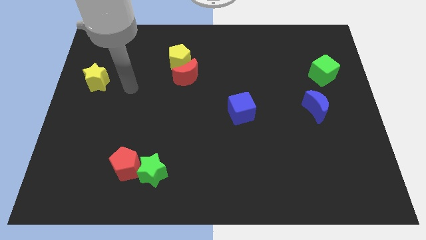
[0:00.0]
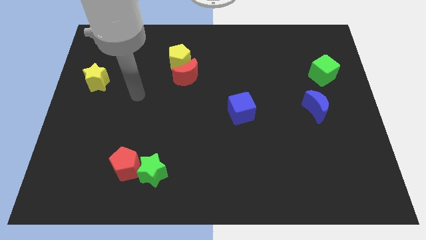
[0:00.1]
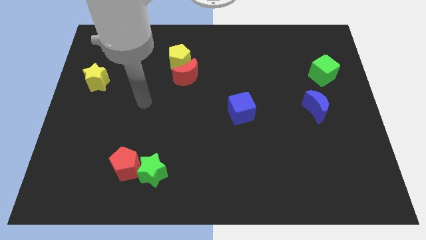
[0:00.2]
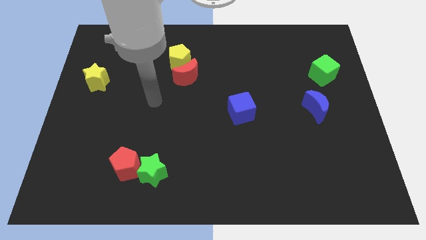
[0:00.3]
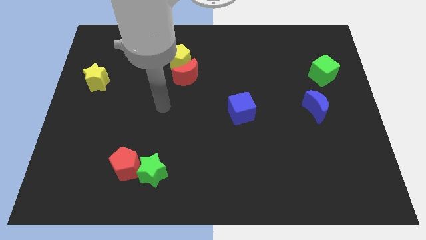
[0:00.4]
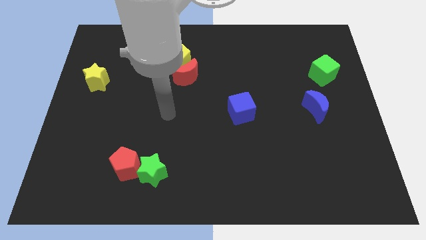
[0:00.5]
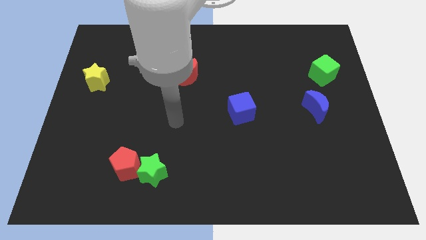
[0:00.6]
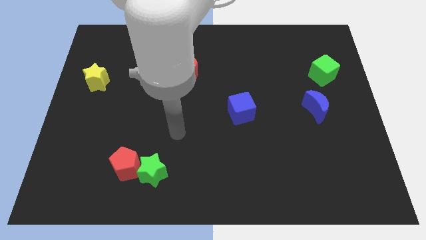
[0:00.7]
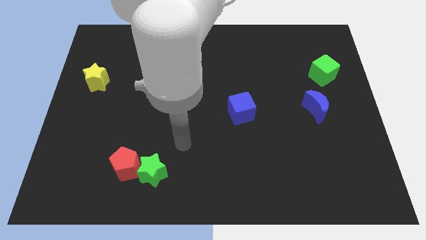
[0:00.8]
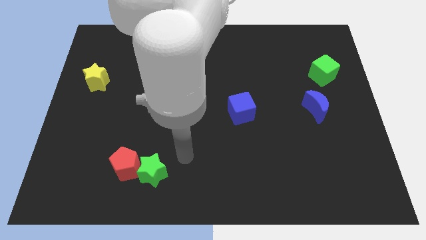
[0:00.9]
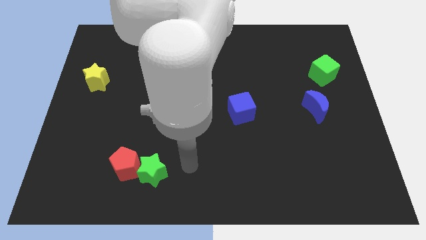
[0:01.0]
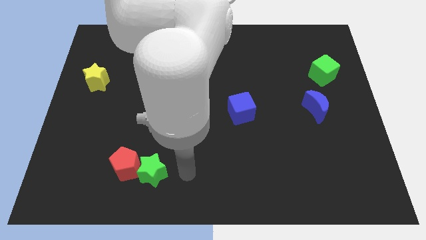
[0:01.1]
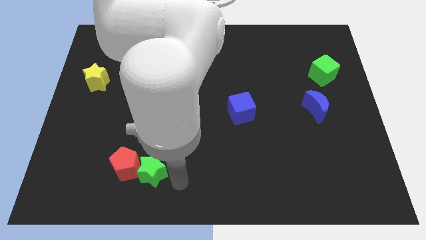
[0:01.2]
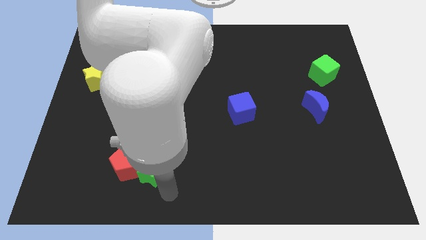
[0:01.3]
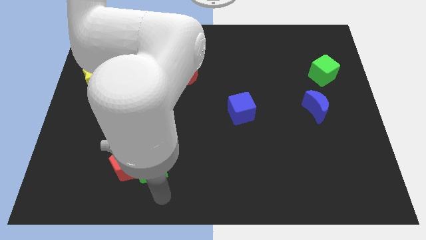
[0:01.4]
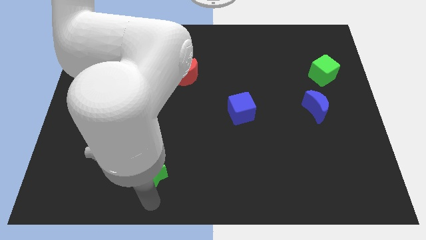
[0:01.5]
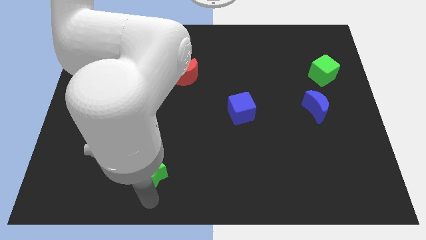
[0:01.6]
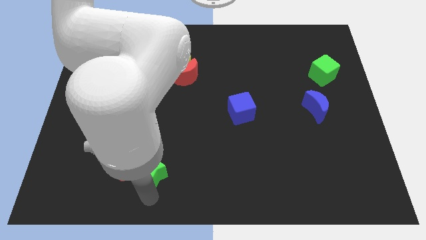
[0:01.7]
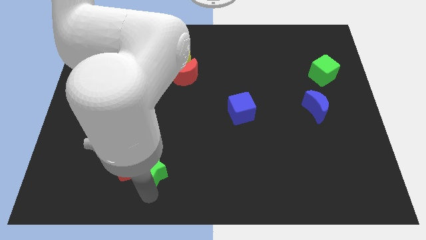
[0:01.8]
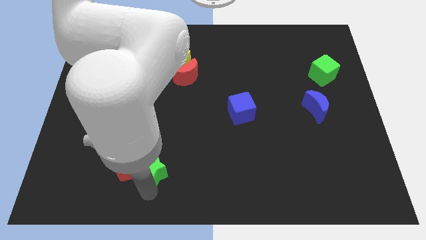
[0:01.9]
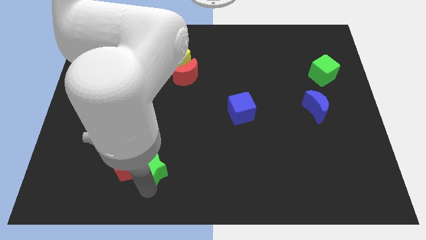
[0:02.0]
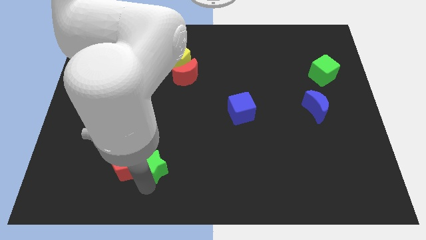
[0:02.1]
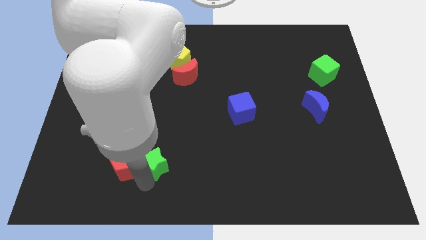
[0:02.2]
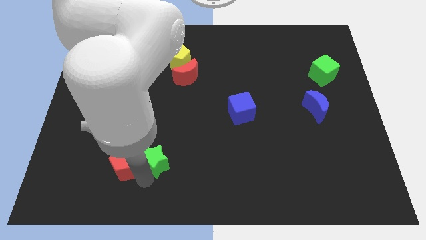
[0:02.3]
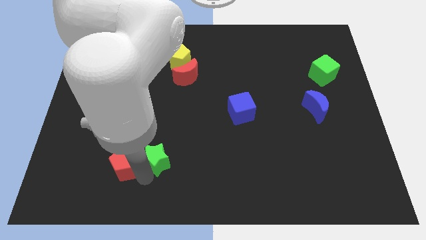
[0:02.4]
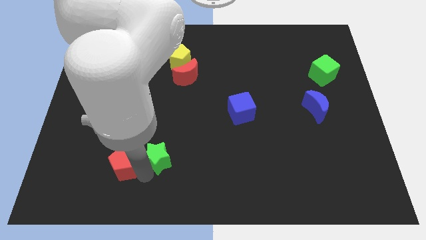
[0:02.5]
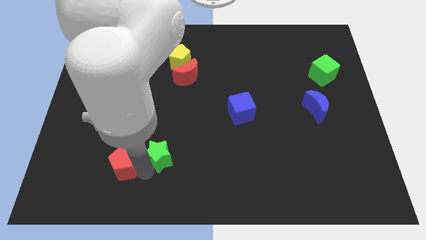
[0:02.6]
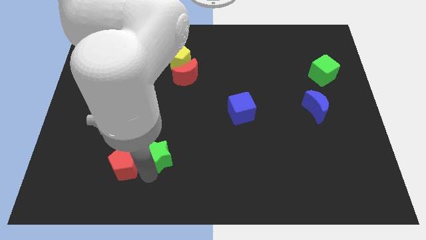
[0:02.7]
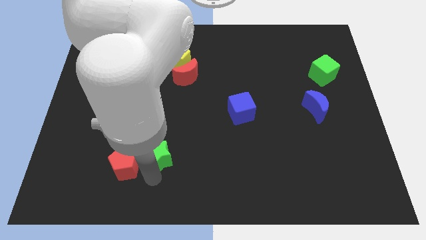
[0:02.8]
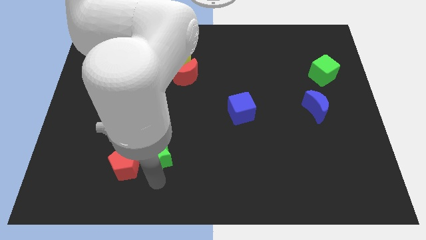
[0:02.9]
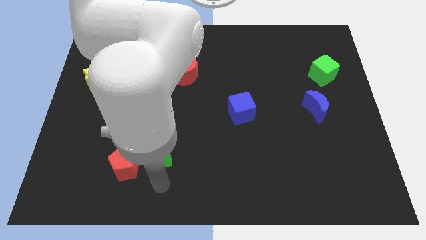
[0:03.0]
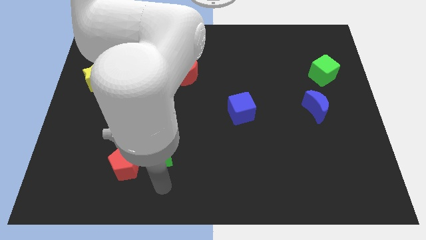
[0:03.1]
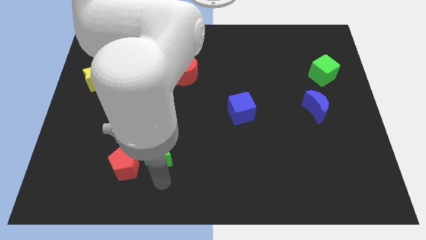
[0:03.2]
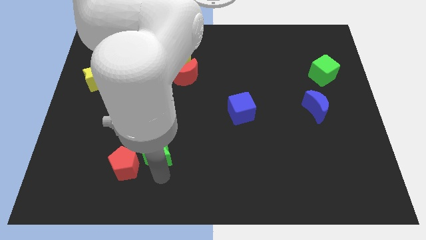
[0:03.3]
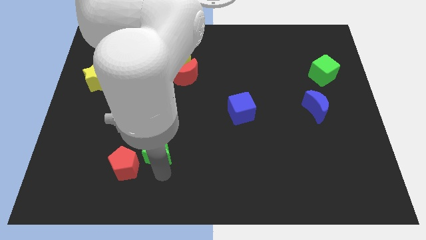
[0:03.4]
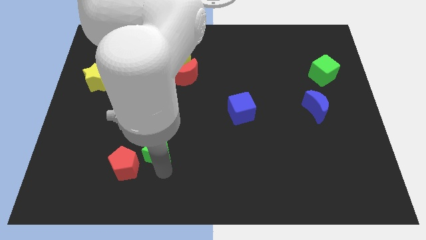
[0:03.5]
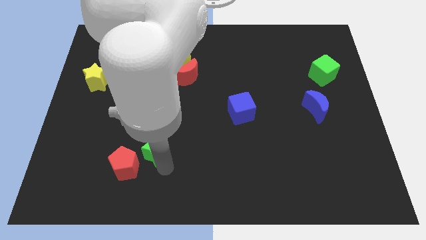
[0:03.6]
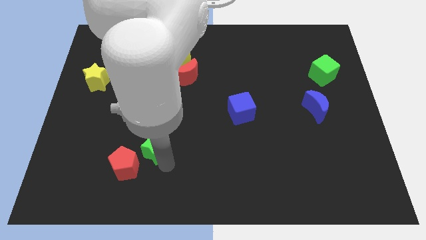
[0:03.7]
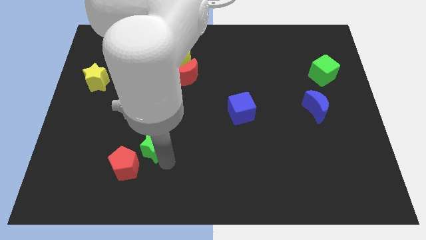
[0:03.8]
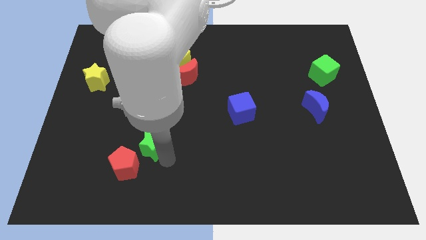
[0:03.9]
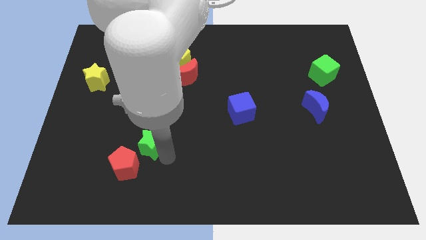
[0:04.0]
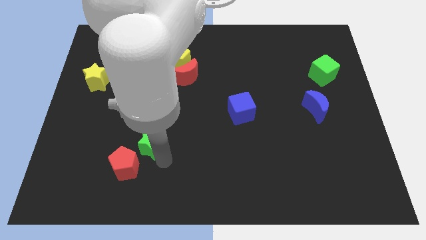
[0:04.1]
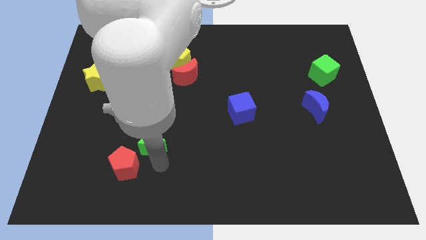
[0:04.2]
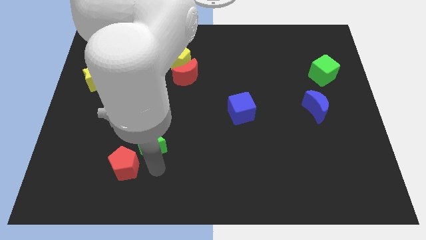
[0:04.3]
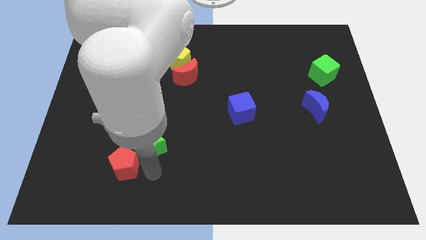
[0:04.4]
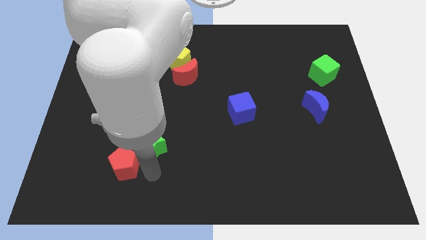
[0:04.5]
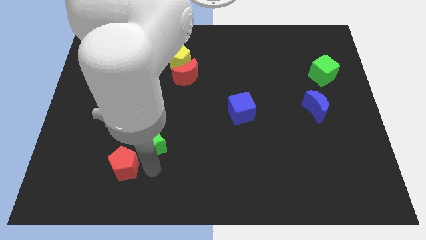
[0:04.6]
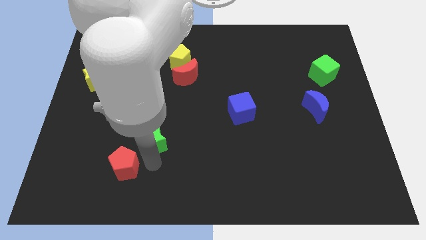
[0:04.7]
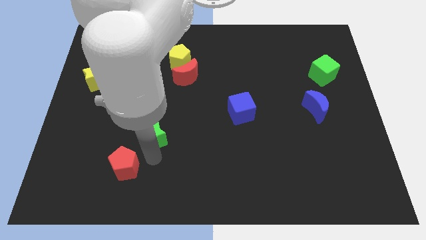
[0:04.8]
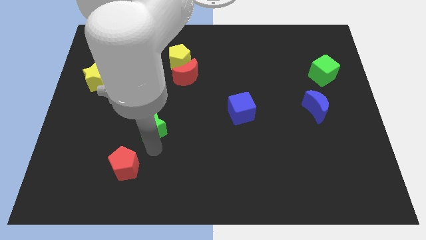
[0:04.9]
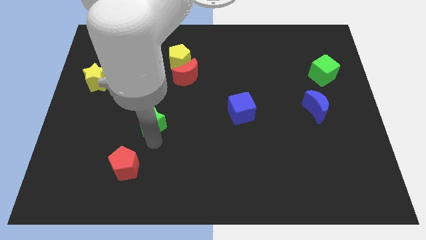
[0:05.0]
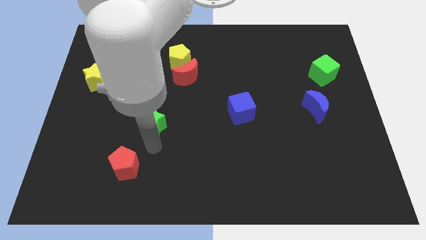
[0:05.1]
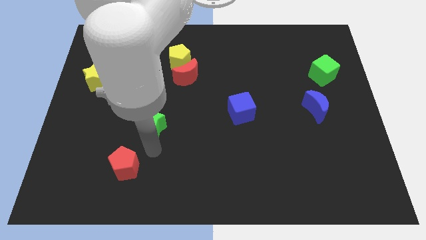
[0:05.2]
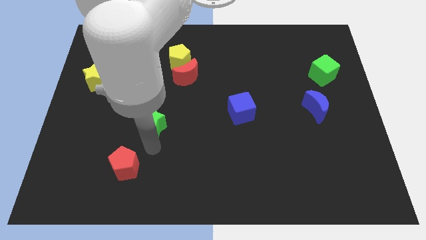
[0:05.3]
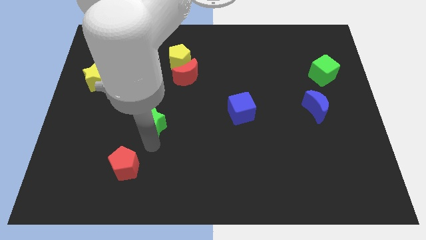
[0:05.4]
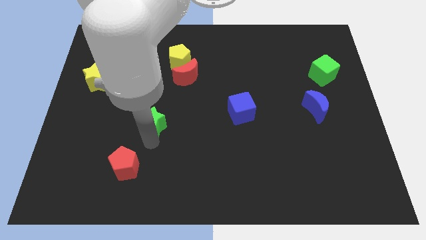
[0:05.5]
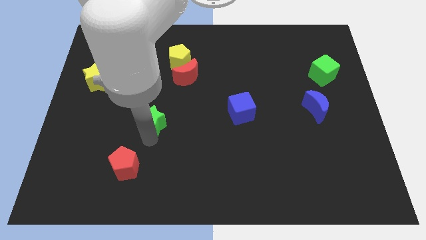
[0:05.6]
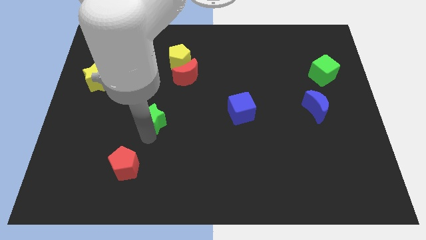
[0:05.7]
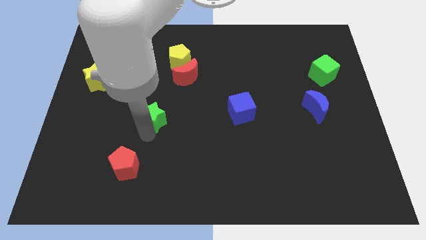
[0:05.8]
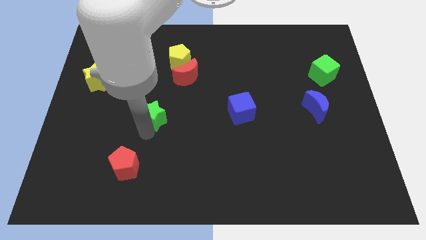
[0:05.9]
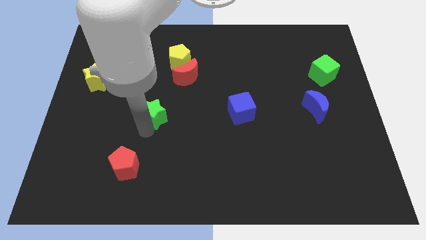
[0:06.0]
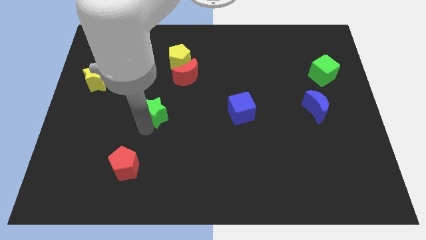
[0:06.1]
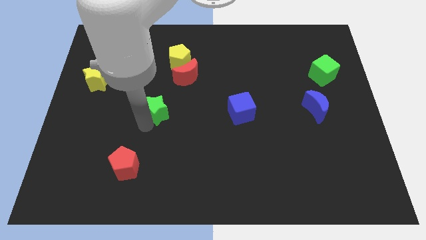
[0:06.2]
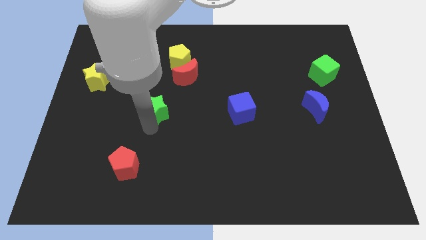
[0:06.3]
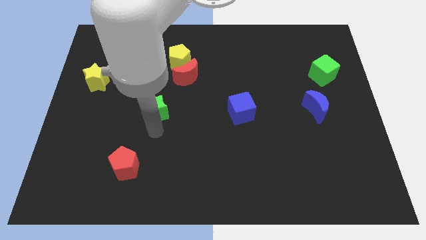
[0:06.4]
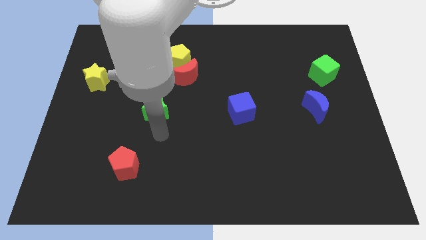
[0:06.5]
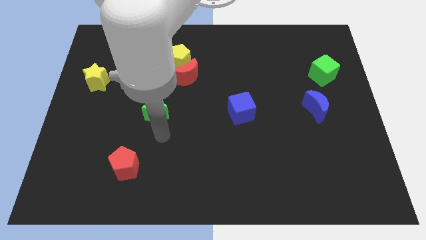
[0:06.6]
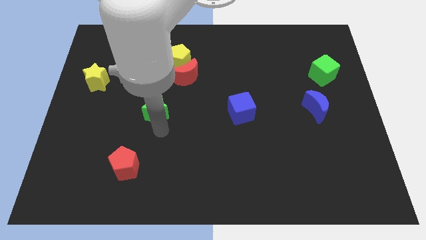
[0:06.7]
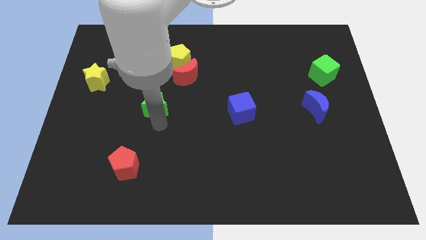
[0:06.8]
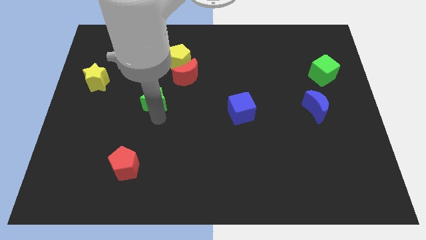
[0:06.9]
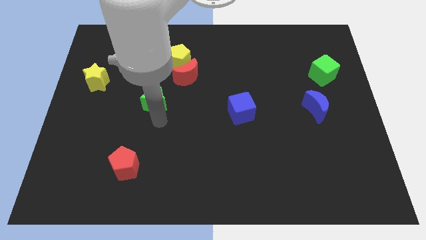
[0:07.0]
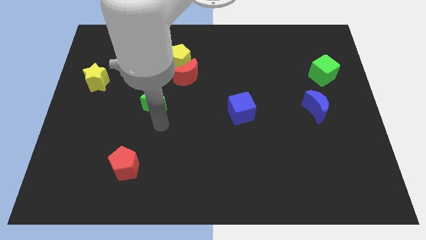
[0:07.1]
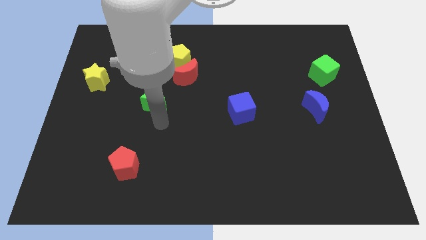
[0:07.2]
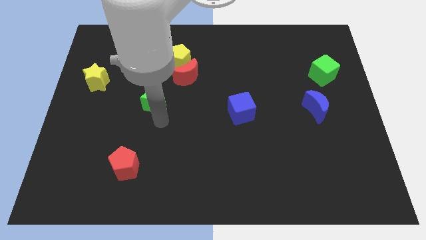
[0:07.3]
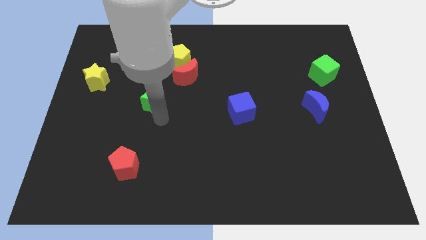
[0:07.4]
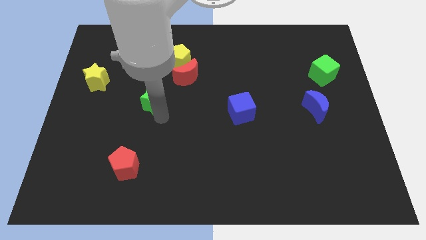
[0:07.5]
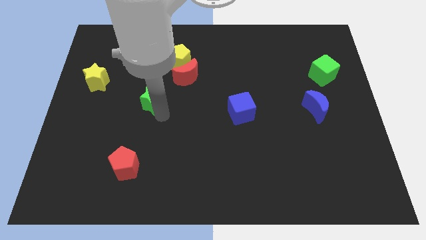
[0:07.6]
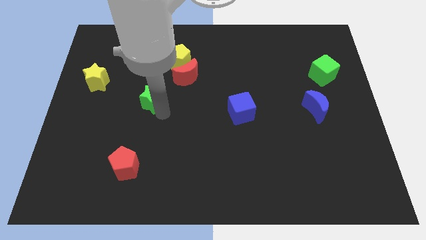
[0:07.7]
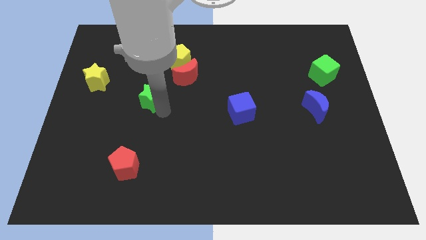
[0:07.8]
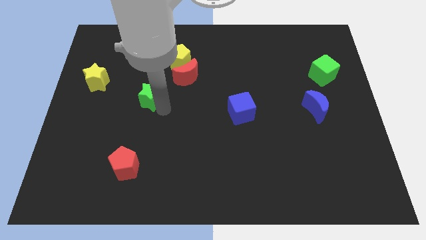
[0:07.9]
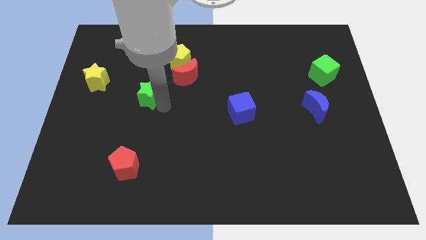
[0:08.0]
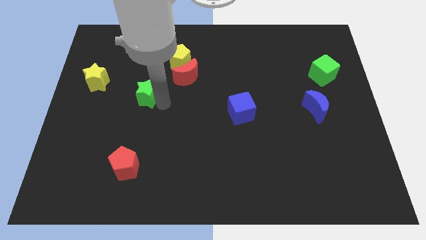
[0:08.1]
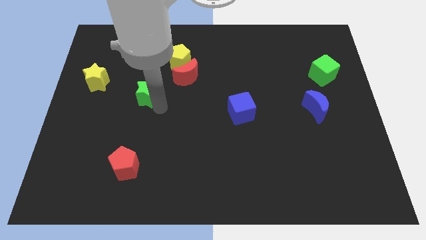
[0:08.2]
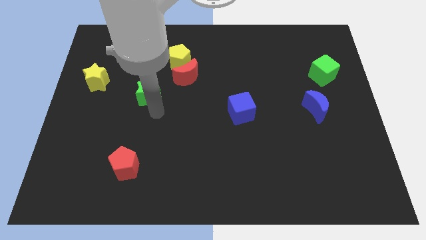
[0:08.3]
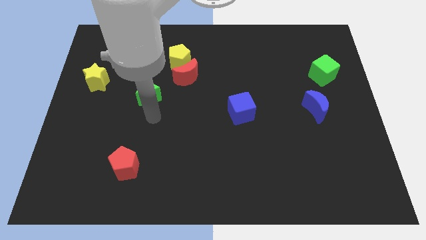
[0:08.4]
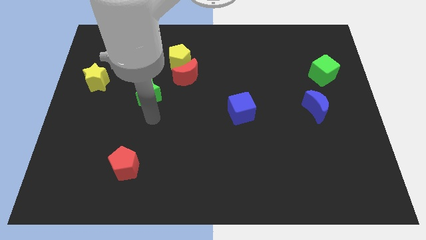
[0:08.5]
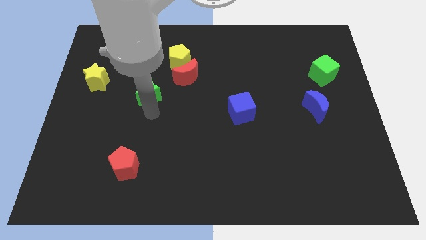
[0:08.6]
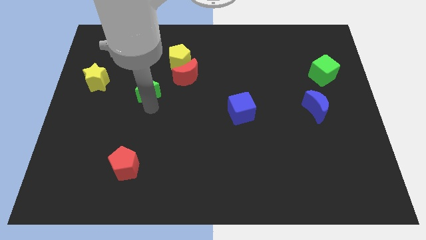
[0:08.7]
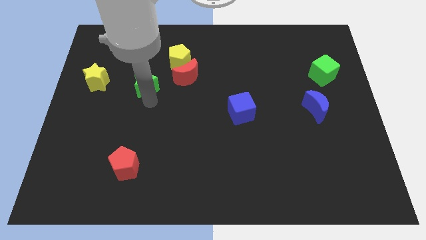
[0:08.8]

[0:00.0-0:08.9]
slide the green star to the left of the red moon
